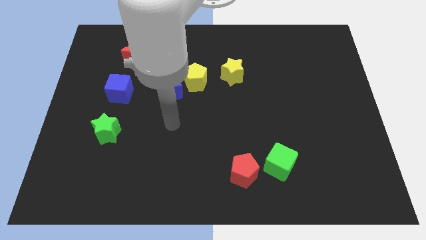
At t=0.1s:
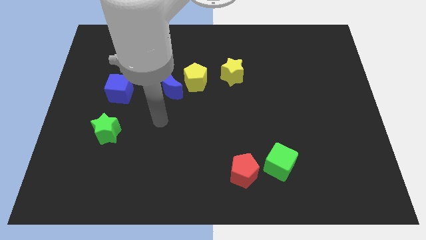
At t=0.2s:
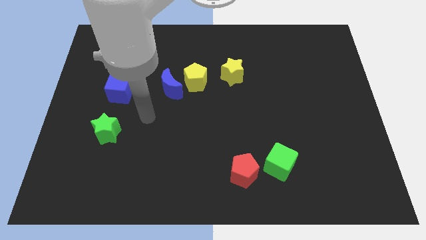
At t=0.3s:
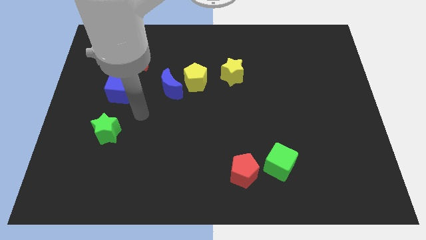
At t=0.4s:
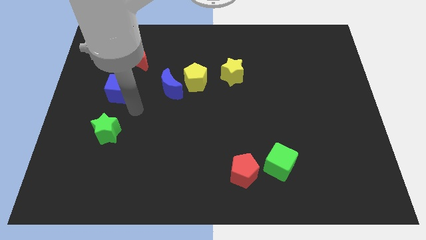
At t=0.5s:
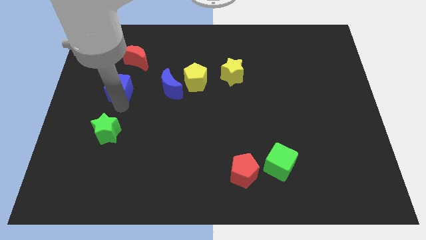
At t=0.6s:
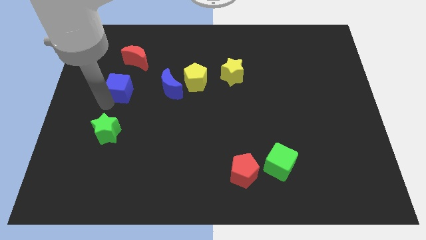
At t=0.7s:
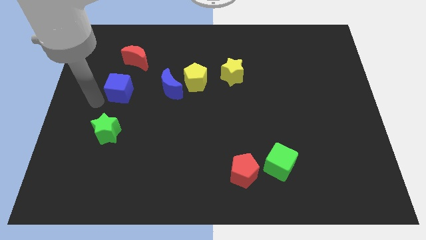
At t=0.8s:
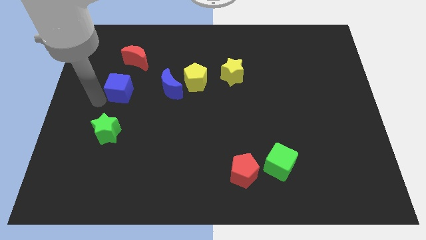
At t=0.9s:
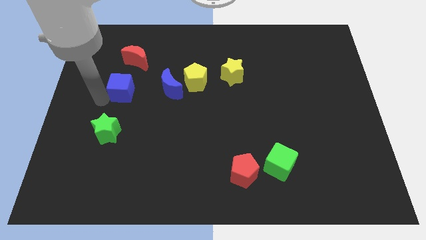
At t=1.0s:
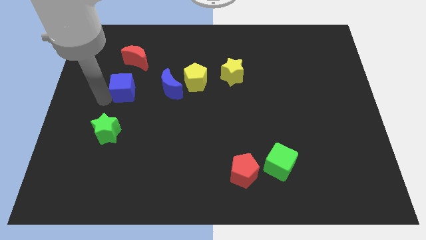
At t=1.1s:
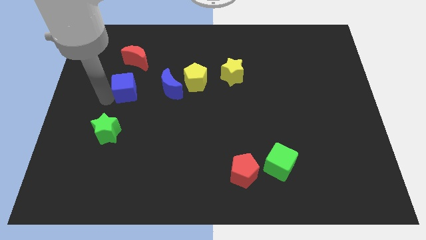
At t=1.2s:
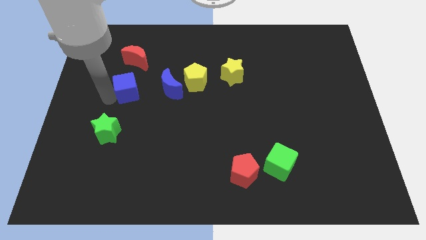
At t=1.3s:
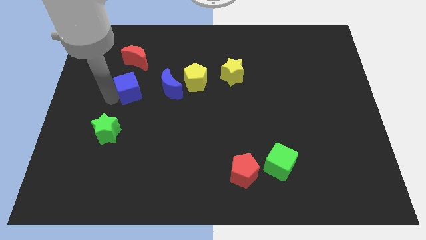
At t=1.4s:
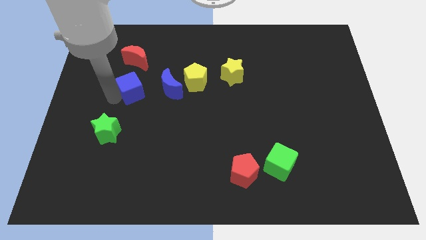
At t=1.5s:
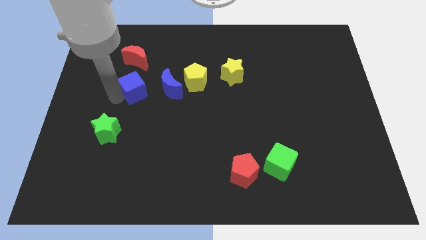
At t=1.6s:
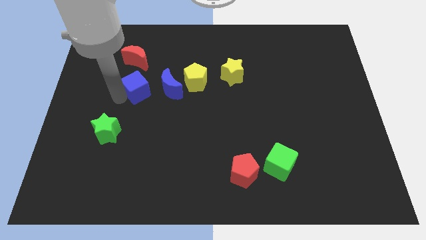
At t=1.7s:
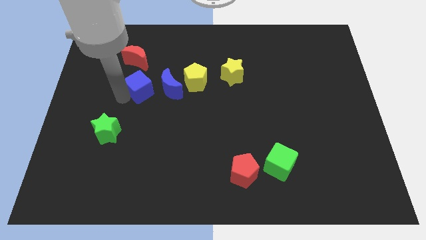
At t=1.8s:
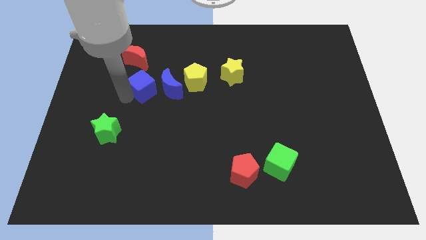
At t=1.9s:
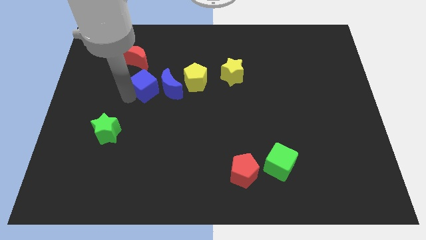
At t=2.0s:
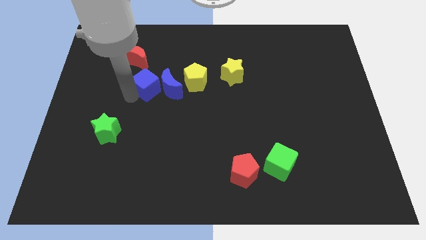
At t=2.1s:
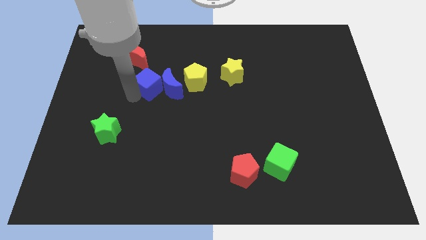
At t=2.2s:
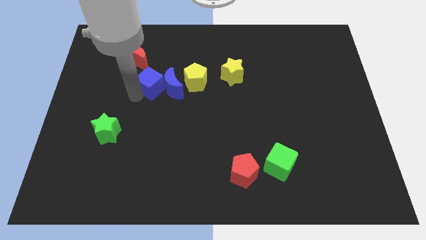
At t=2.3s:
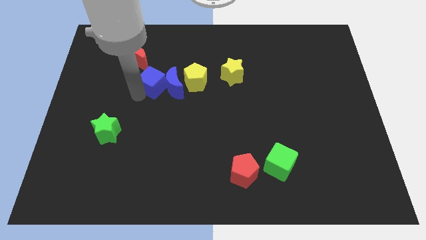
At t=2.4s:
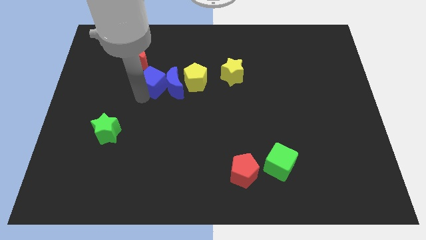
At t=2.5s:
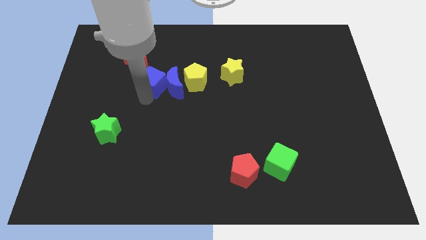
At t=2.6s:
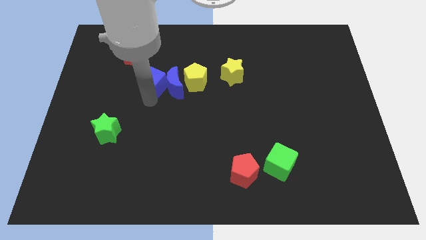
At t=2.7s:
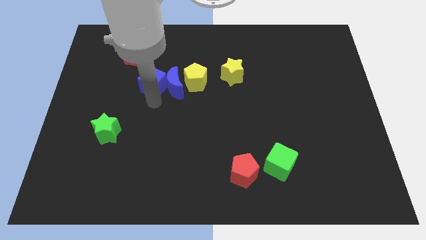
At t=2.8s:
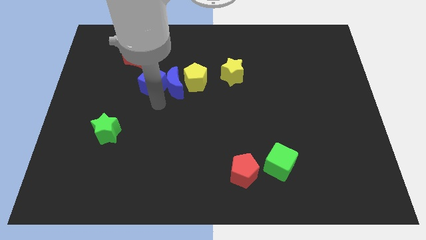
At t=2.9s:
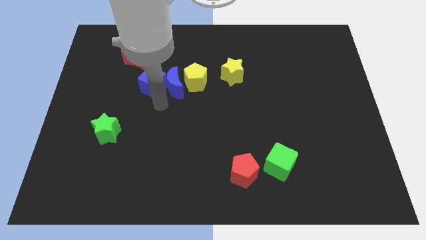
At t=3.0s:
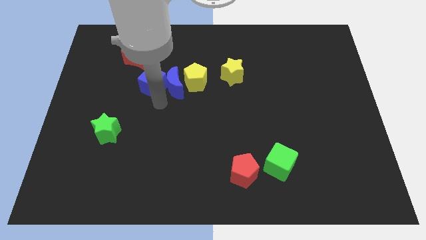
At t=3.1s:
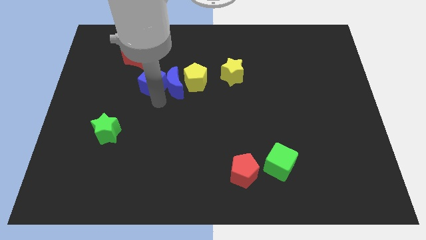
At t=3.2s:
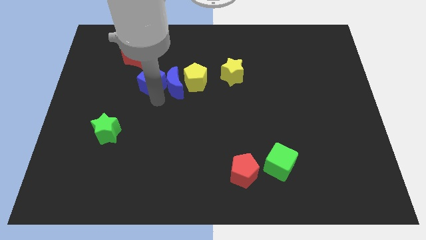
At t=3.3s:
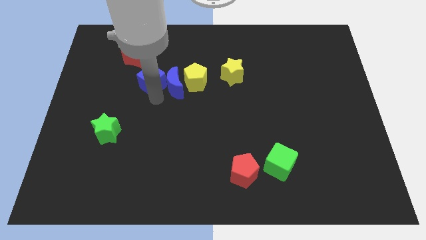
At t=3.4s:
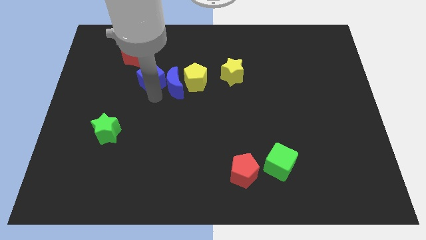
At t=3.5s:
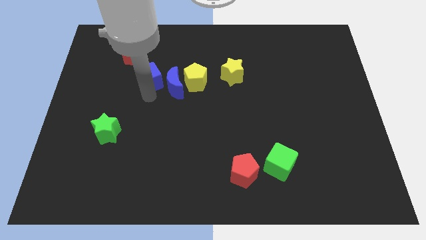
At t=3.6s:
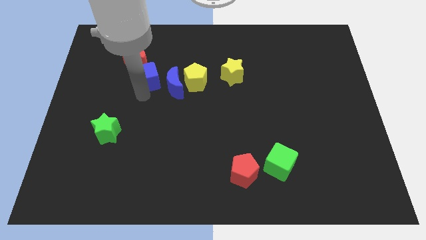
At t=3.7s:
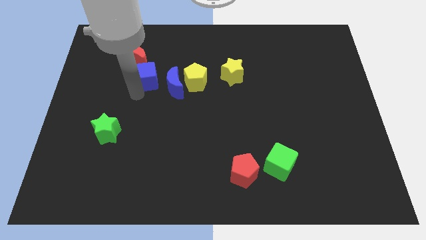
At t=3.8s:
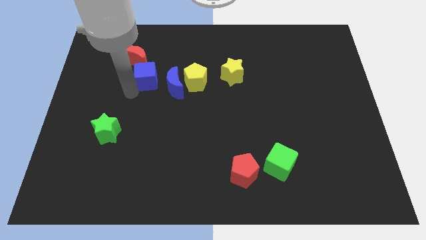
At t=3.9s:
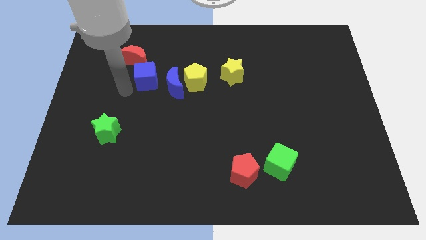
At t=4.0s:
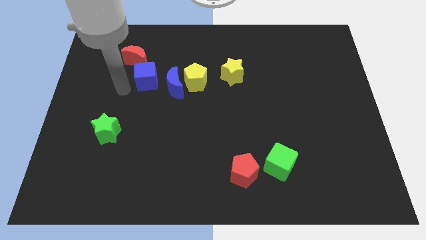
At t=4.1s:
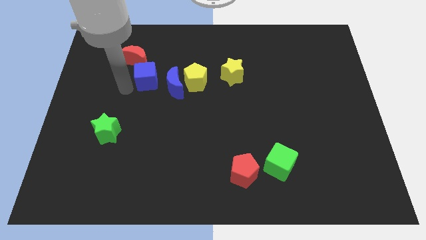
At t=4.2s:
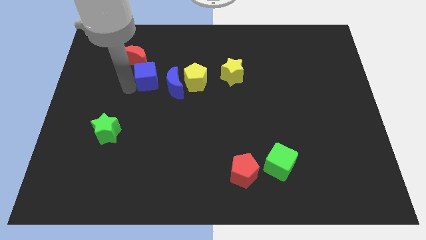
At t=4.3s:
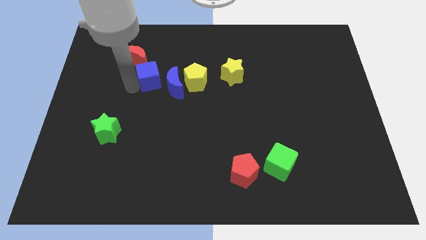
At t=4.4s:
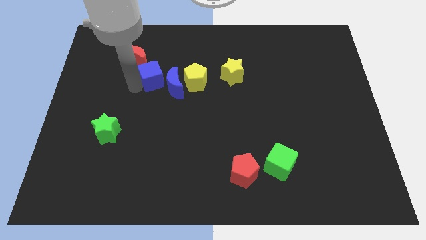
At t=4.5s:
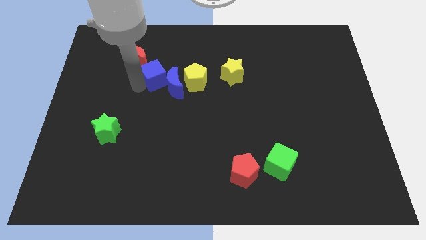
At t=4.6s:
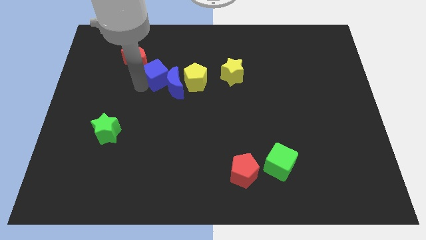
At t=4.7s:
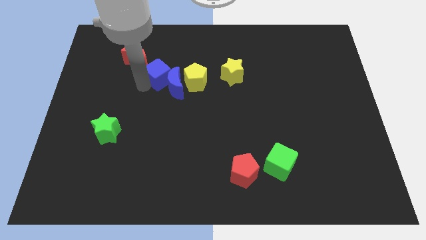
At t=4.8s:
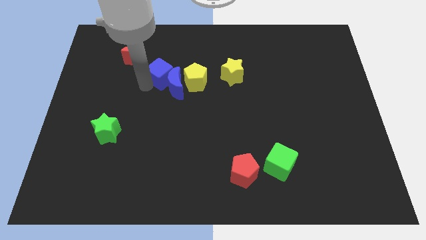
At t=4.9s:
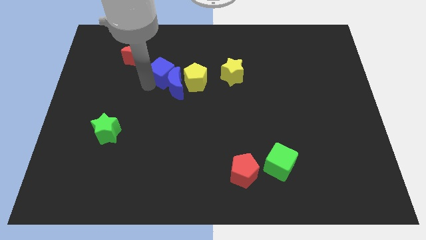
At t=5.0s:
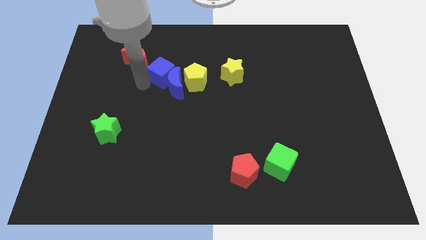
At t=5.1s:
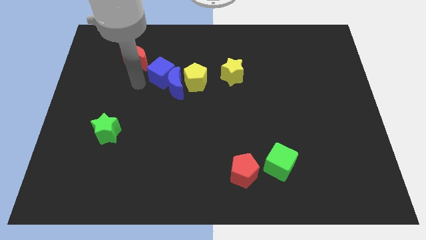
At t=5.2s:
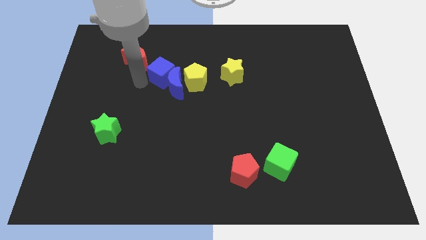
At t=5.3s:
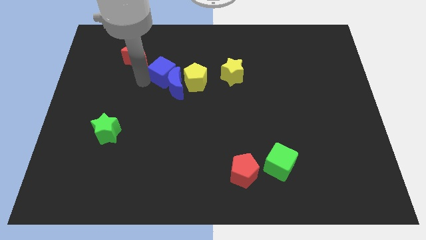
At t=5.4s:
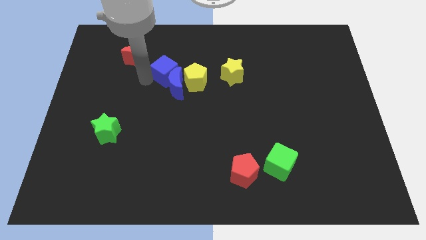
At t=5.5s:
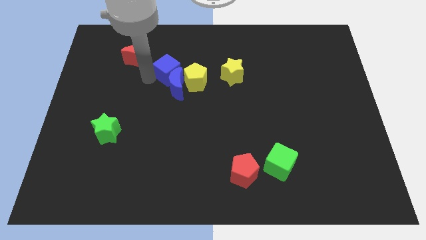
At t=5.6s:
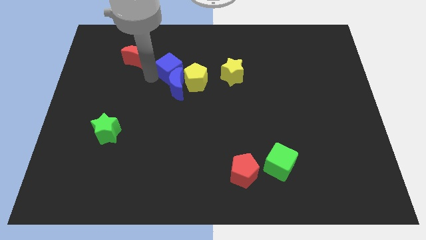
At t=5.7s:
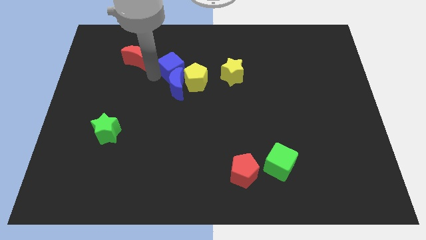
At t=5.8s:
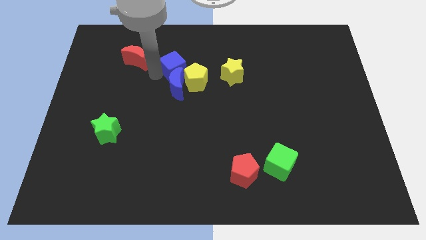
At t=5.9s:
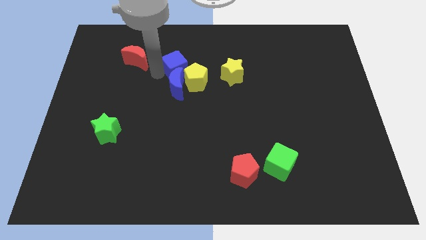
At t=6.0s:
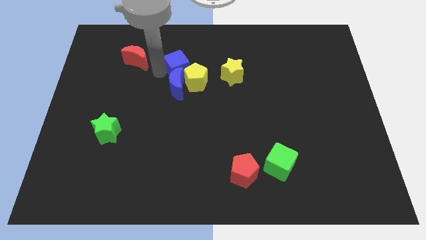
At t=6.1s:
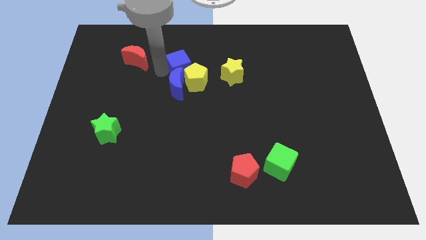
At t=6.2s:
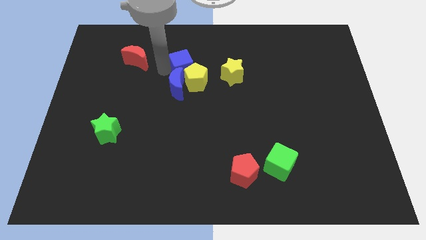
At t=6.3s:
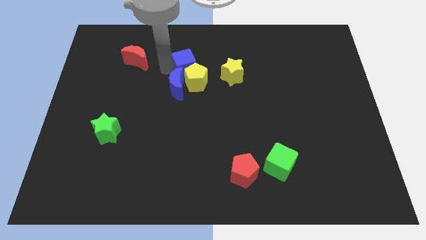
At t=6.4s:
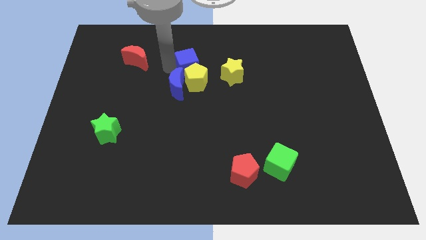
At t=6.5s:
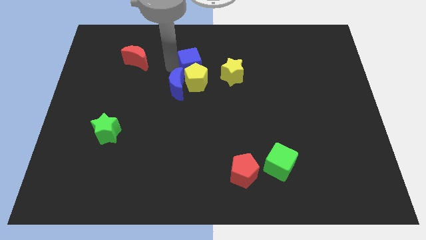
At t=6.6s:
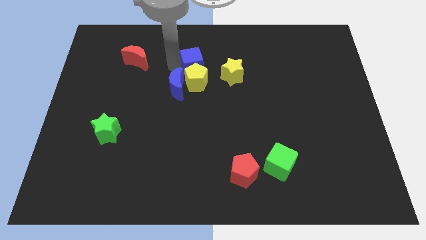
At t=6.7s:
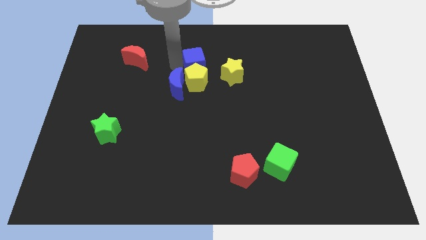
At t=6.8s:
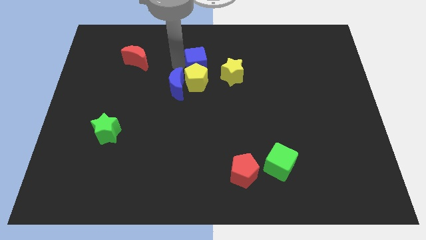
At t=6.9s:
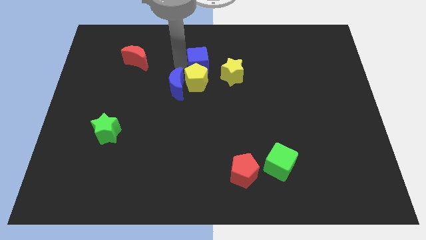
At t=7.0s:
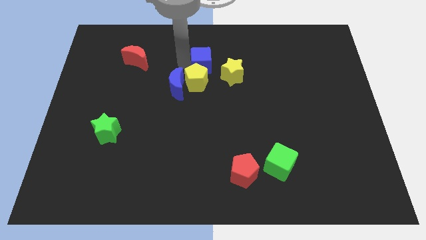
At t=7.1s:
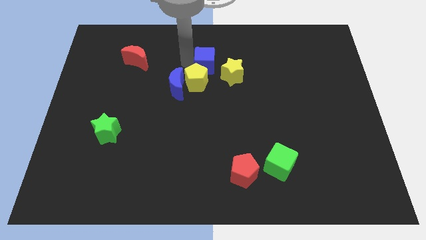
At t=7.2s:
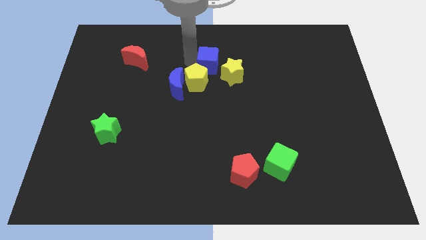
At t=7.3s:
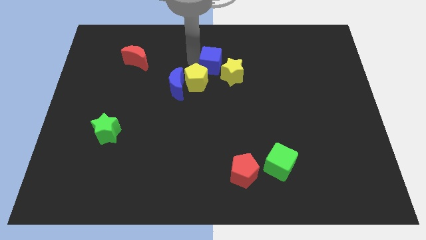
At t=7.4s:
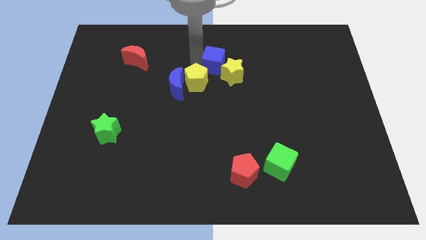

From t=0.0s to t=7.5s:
push the blue cube towards the yellow star
